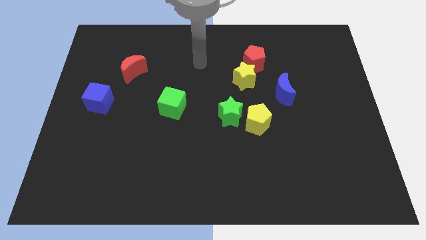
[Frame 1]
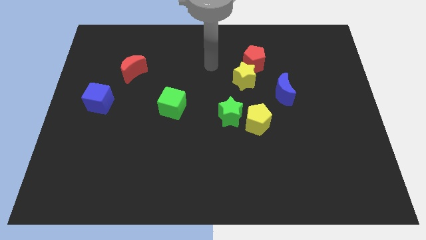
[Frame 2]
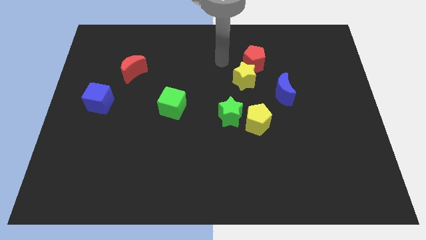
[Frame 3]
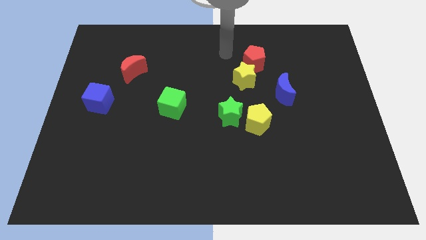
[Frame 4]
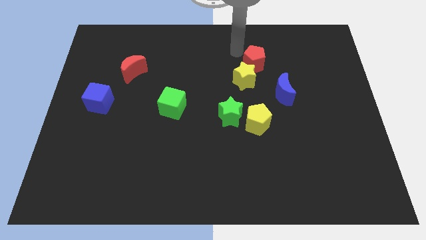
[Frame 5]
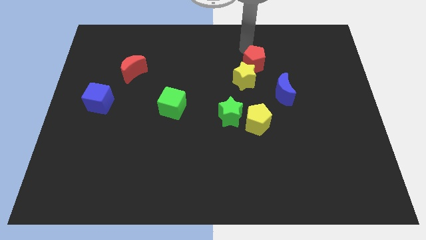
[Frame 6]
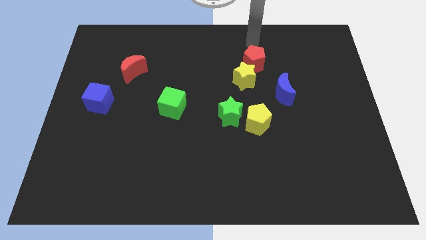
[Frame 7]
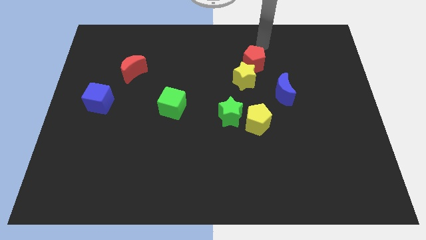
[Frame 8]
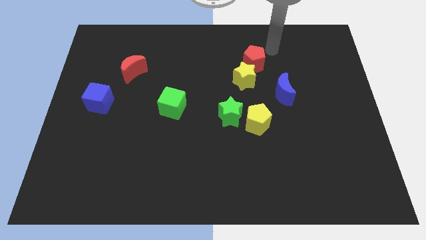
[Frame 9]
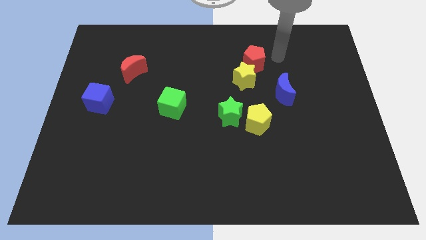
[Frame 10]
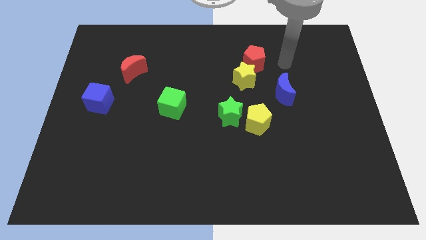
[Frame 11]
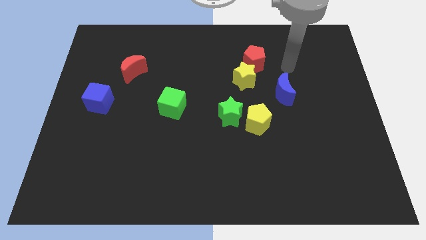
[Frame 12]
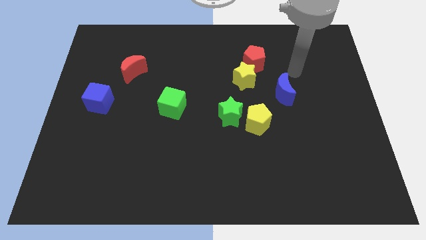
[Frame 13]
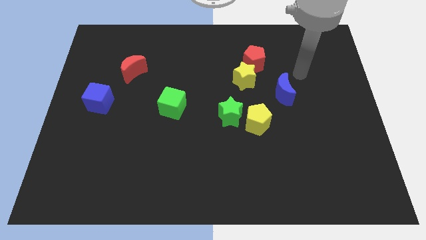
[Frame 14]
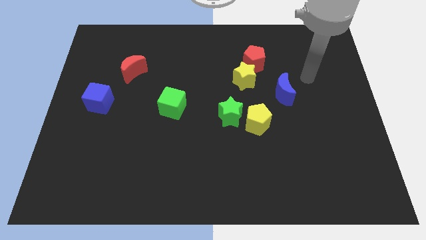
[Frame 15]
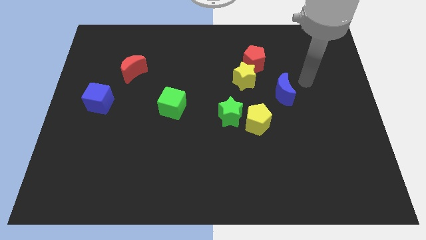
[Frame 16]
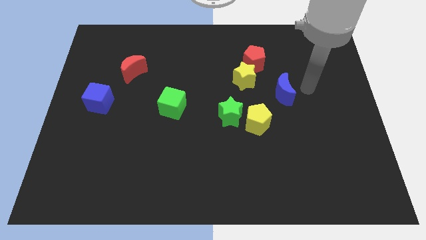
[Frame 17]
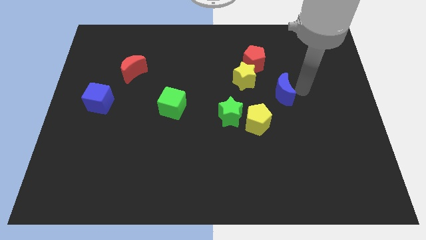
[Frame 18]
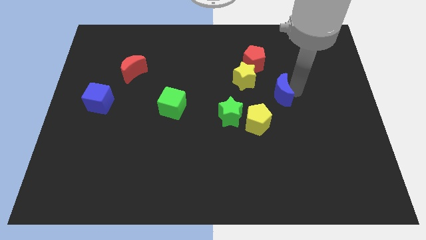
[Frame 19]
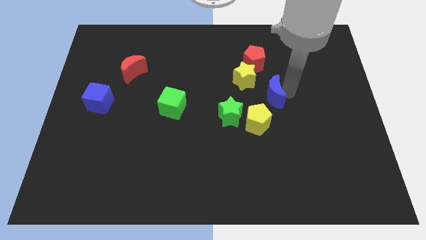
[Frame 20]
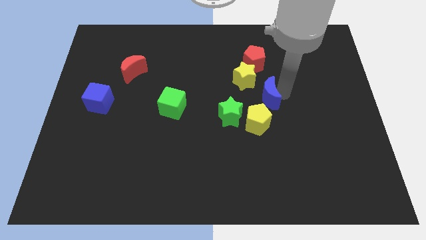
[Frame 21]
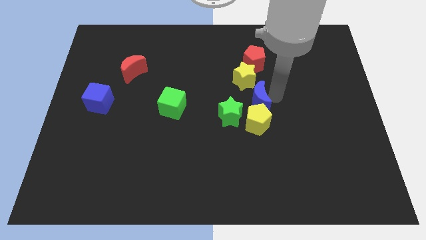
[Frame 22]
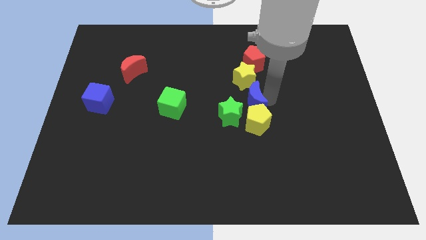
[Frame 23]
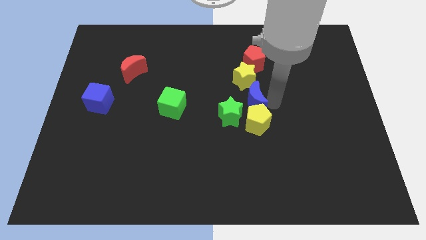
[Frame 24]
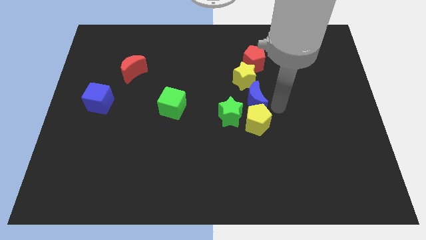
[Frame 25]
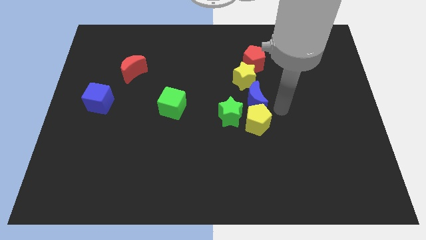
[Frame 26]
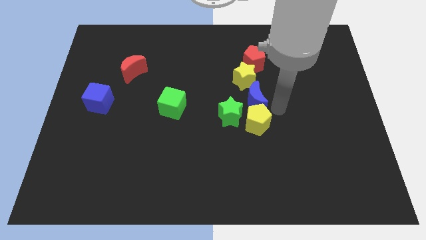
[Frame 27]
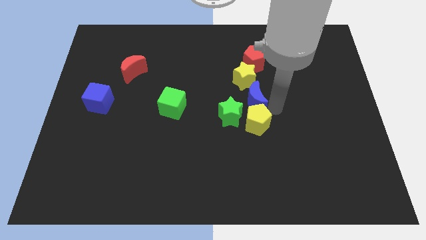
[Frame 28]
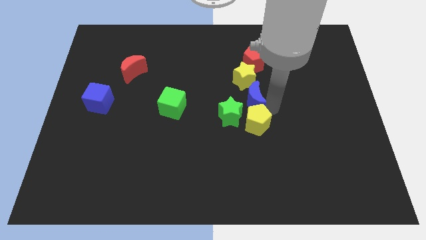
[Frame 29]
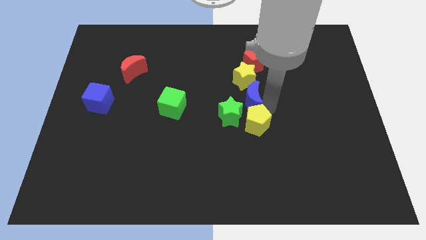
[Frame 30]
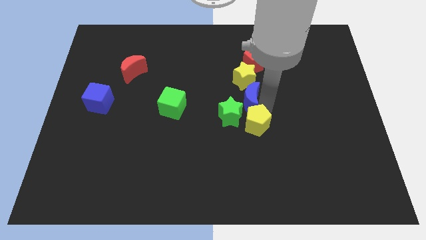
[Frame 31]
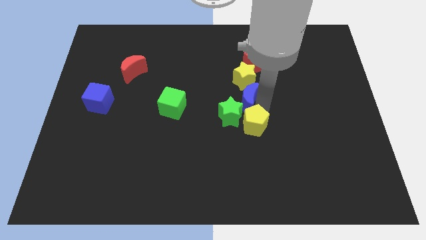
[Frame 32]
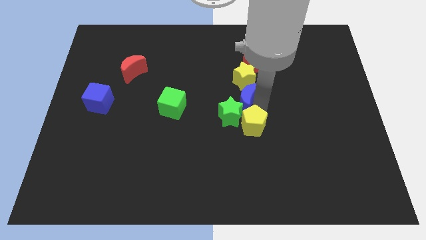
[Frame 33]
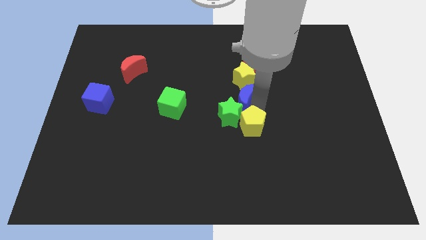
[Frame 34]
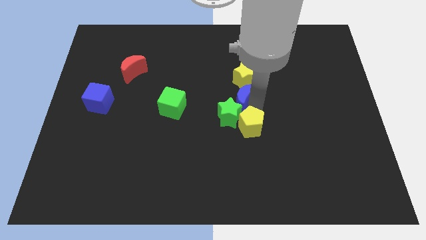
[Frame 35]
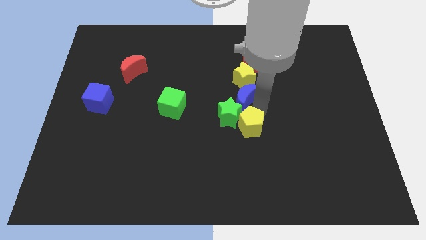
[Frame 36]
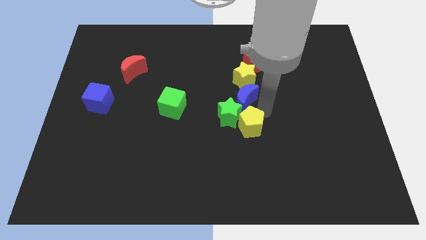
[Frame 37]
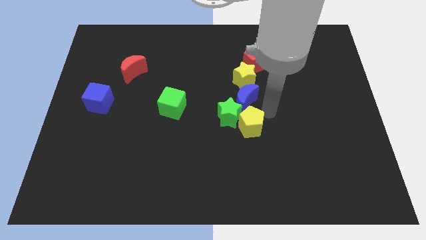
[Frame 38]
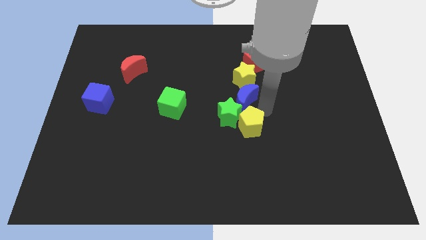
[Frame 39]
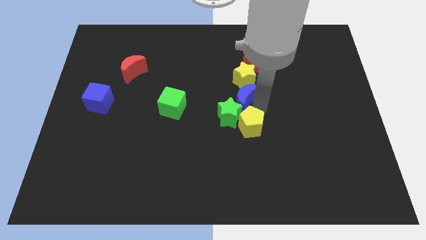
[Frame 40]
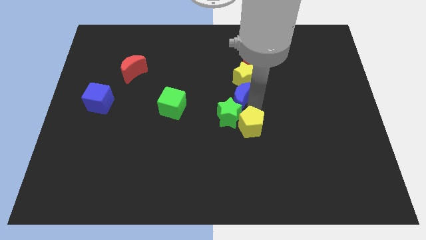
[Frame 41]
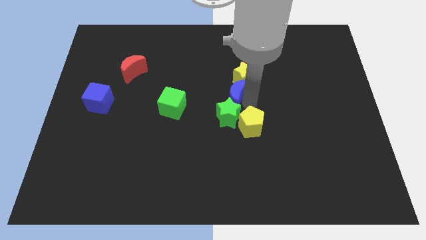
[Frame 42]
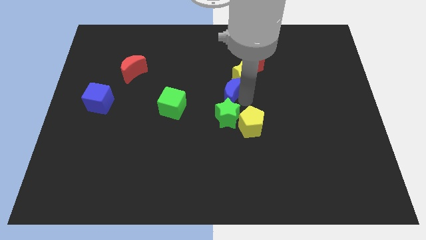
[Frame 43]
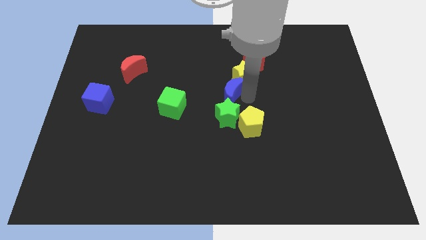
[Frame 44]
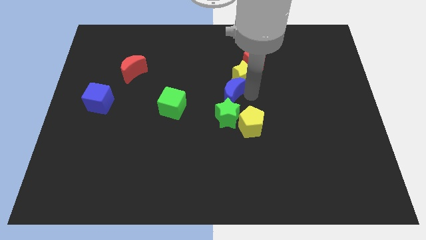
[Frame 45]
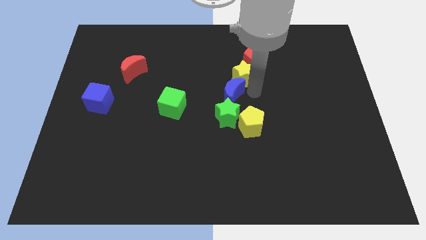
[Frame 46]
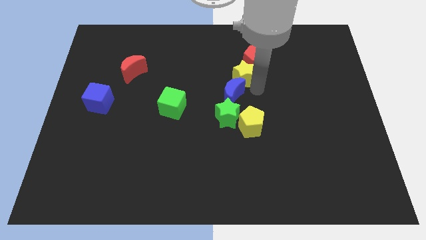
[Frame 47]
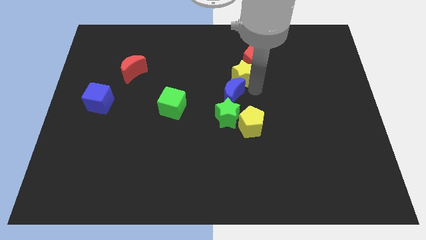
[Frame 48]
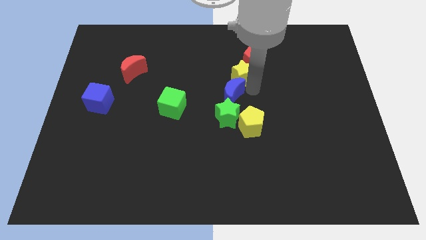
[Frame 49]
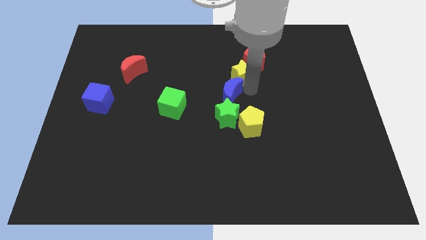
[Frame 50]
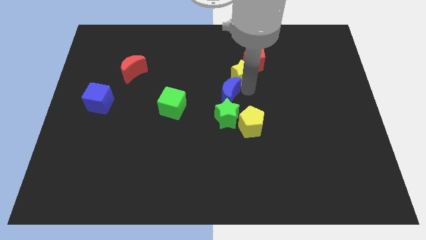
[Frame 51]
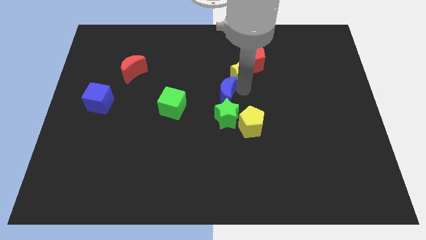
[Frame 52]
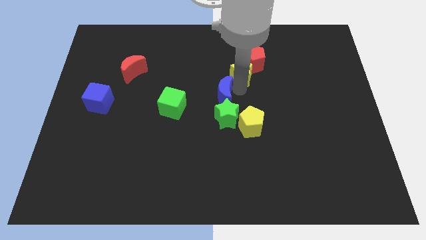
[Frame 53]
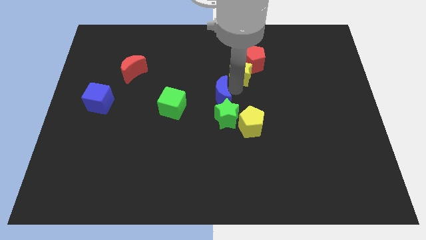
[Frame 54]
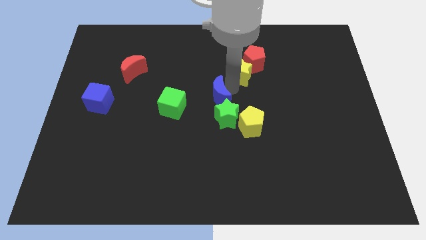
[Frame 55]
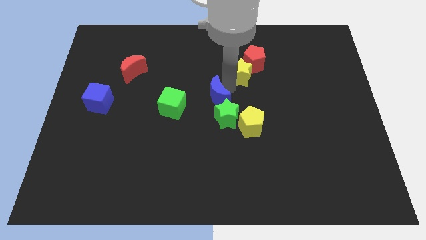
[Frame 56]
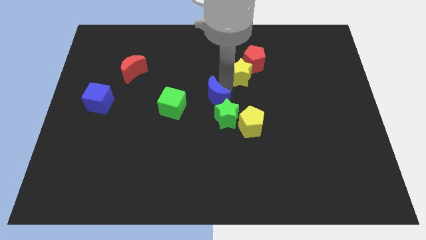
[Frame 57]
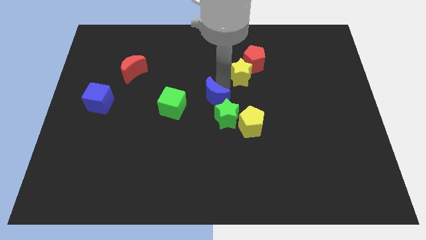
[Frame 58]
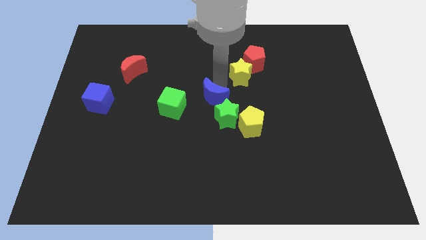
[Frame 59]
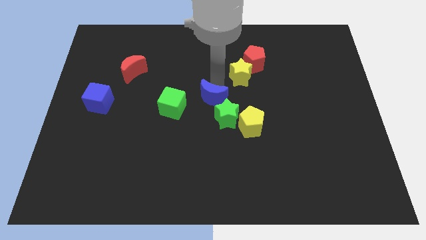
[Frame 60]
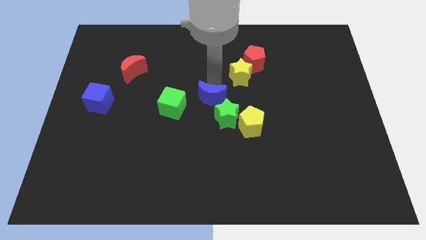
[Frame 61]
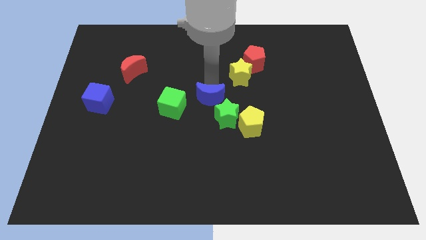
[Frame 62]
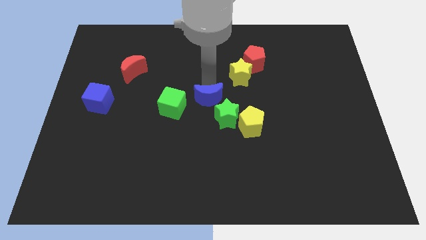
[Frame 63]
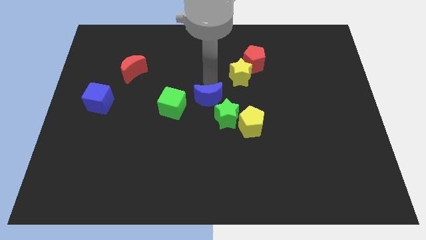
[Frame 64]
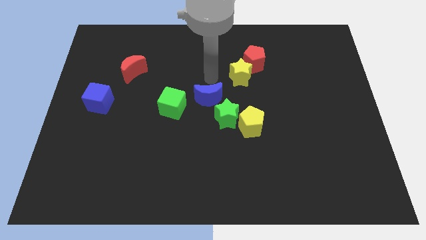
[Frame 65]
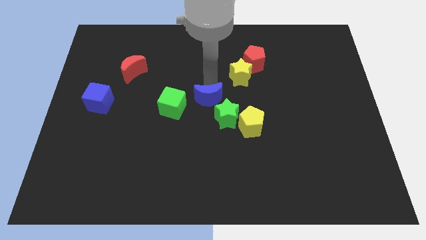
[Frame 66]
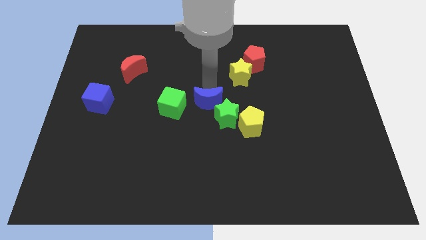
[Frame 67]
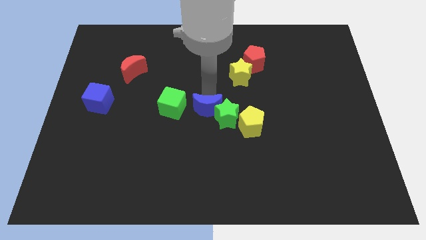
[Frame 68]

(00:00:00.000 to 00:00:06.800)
slide the blue moon just left of the yellow pentagon

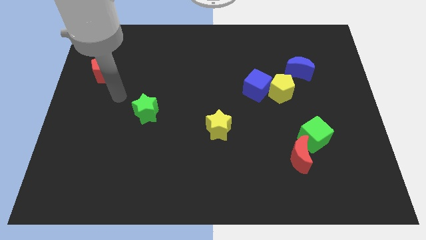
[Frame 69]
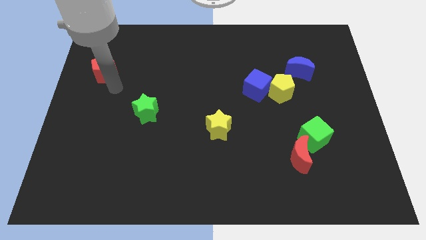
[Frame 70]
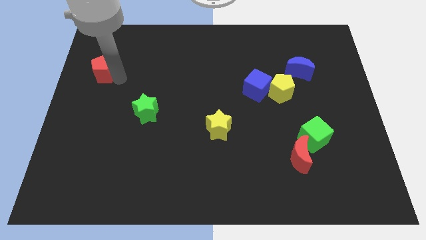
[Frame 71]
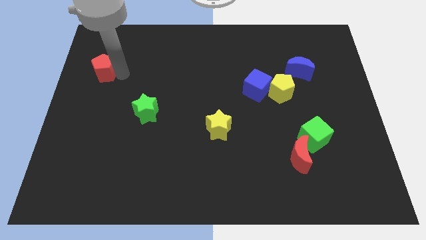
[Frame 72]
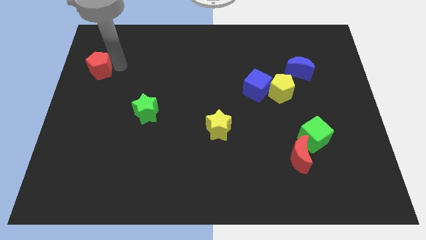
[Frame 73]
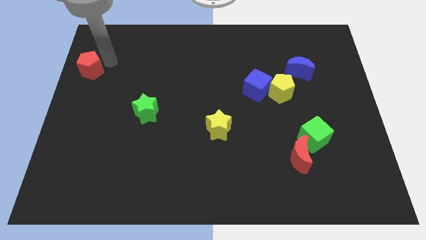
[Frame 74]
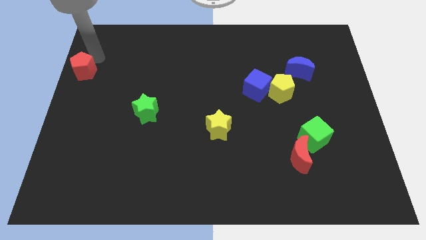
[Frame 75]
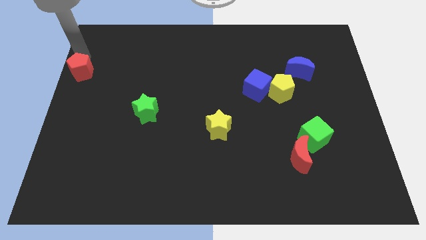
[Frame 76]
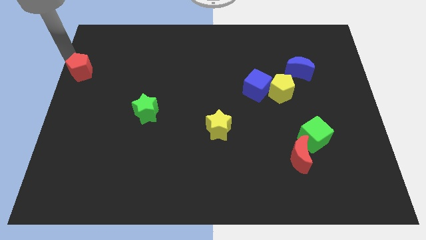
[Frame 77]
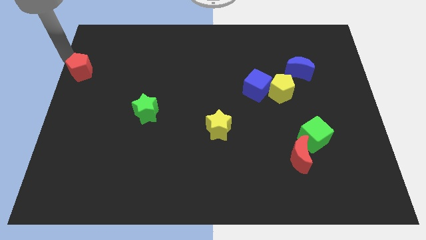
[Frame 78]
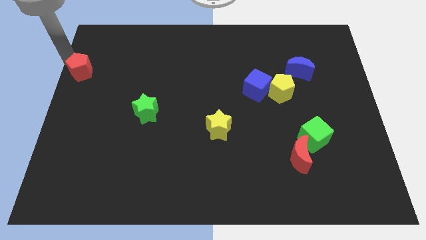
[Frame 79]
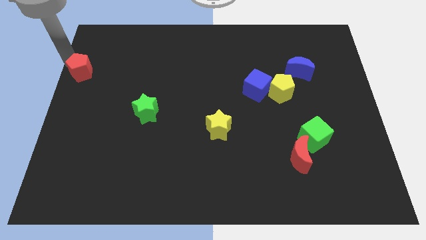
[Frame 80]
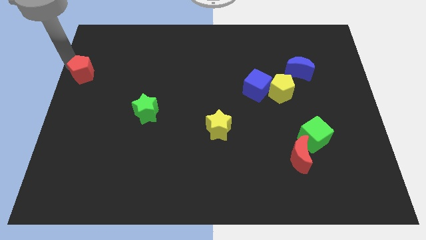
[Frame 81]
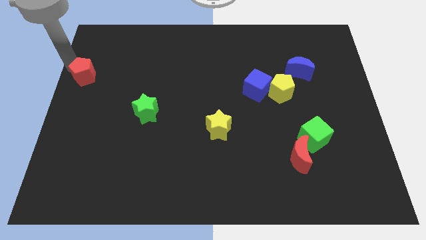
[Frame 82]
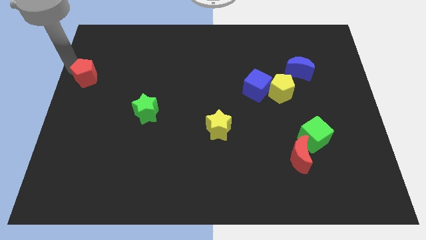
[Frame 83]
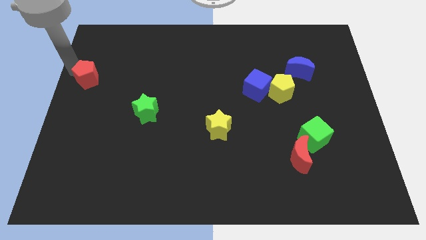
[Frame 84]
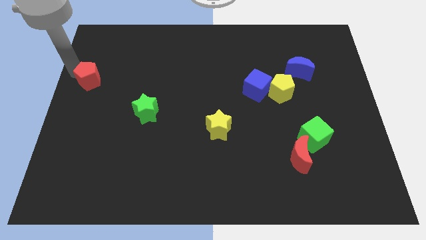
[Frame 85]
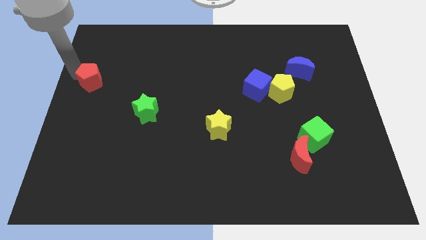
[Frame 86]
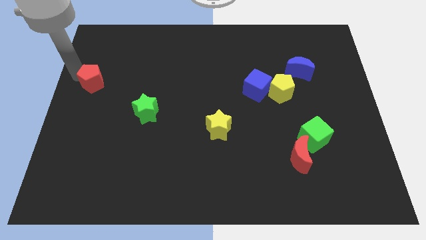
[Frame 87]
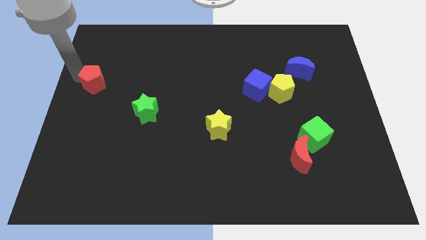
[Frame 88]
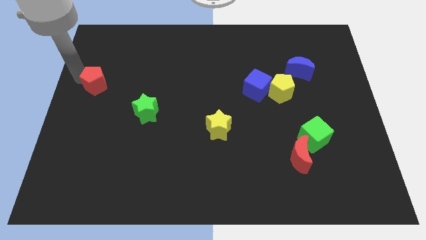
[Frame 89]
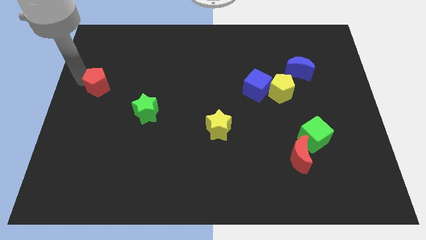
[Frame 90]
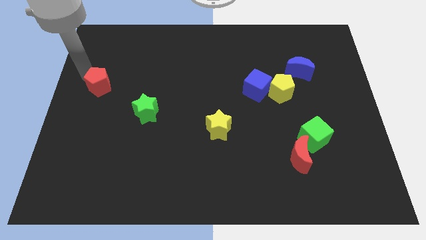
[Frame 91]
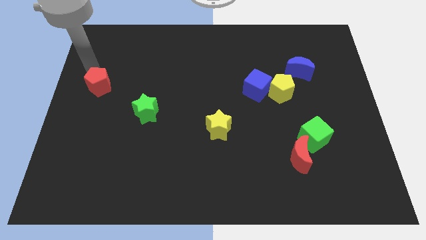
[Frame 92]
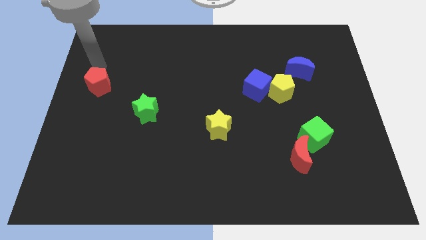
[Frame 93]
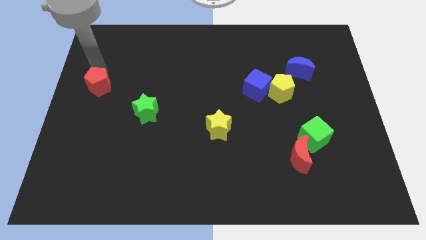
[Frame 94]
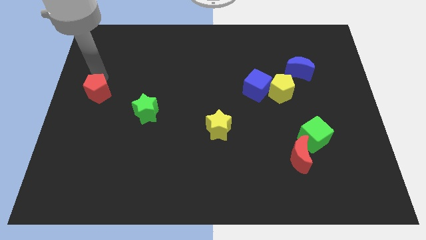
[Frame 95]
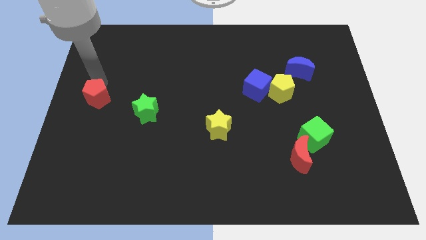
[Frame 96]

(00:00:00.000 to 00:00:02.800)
move the red pentagon to the left of the green star
